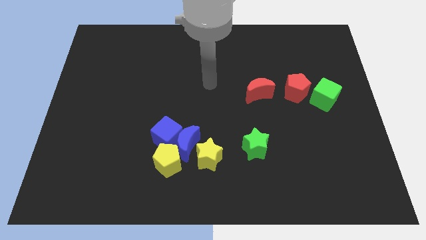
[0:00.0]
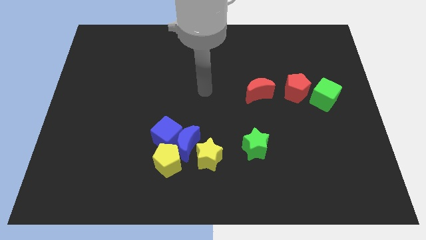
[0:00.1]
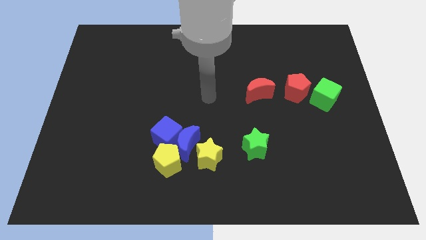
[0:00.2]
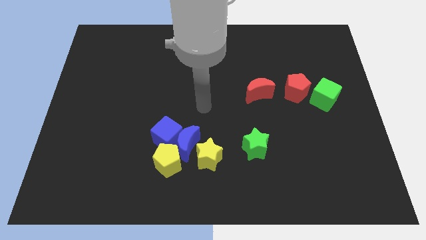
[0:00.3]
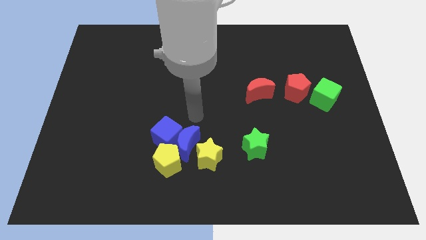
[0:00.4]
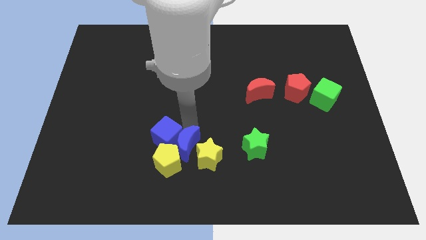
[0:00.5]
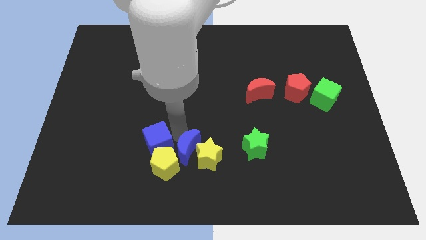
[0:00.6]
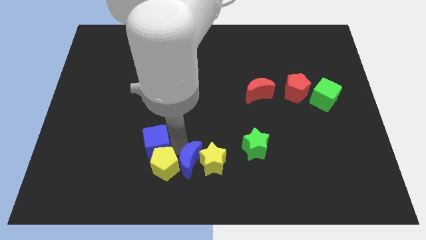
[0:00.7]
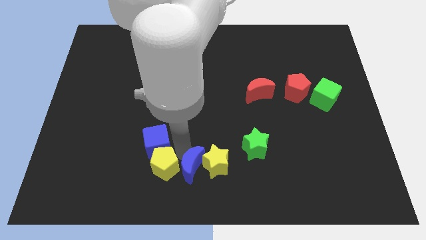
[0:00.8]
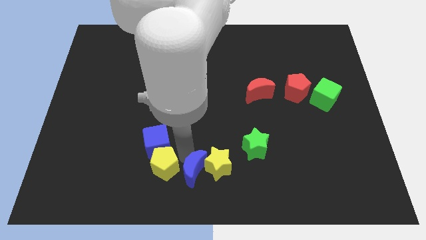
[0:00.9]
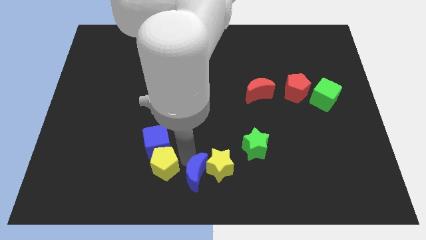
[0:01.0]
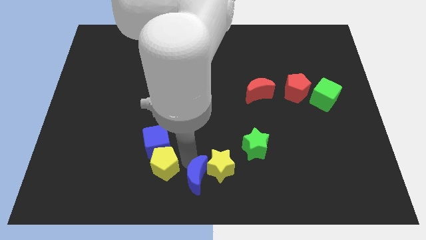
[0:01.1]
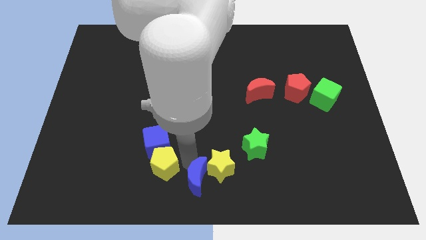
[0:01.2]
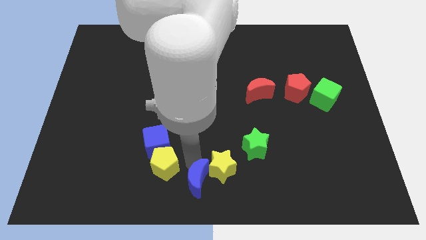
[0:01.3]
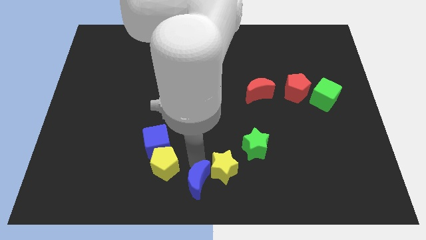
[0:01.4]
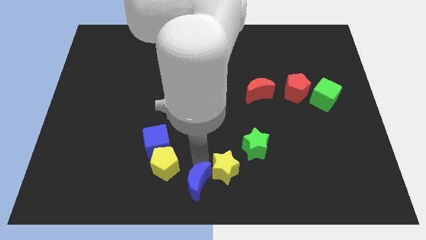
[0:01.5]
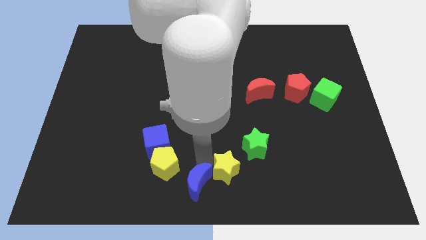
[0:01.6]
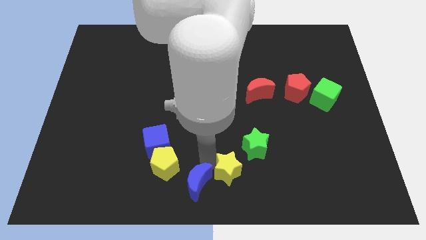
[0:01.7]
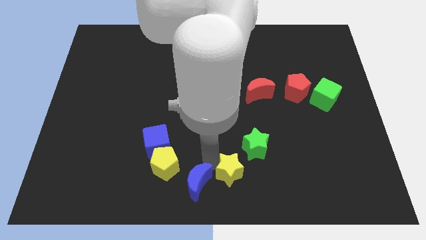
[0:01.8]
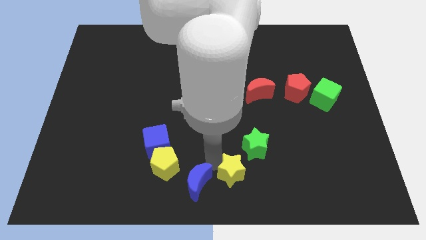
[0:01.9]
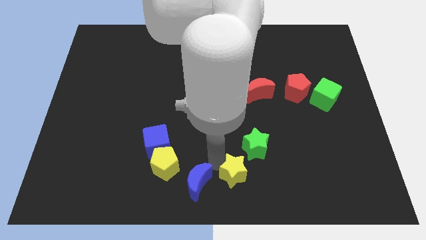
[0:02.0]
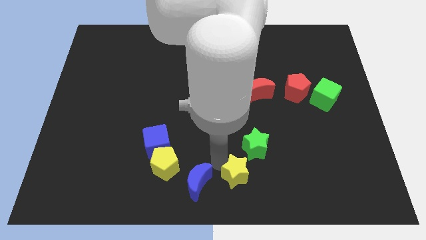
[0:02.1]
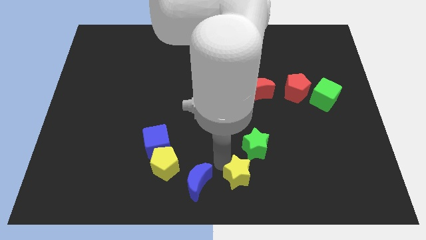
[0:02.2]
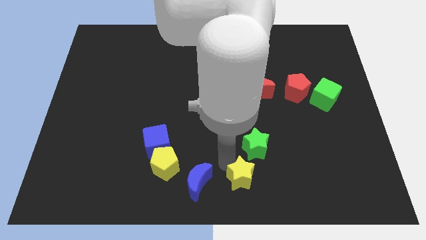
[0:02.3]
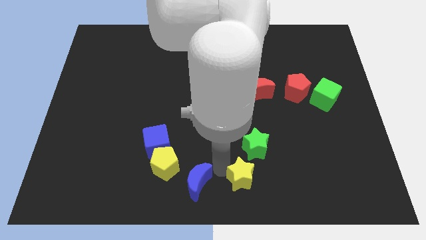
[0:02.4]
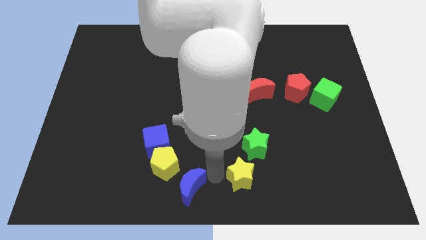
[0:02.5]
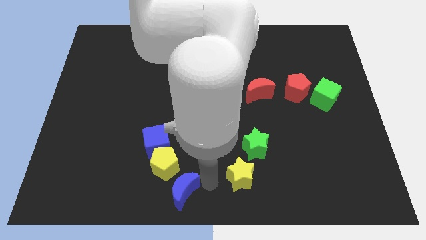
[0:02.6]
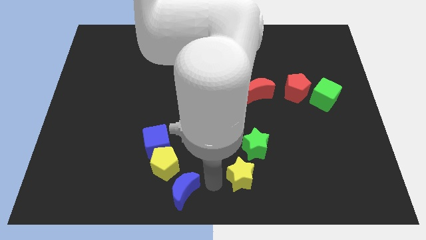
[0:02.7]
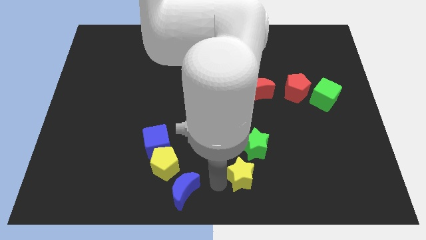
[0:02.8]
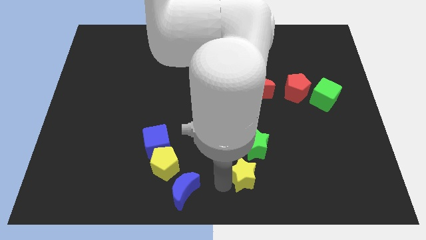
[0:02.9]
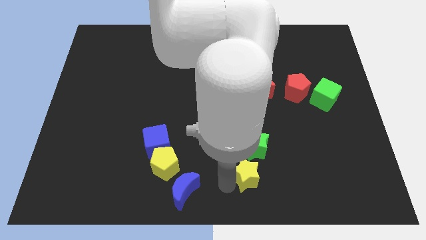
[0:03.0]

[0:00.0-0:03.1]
slightly push the yellow star to the right

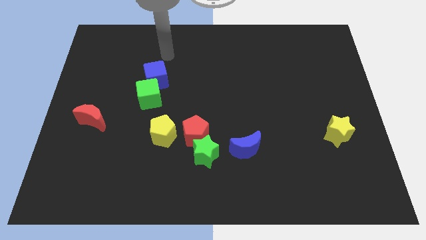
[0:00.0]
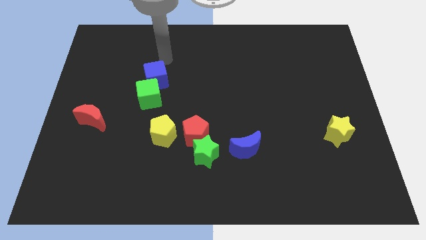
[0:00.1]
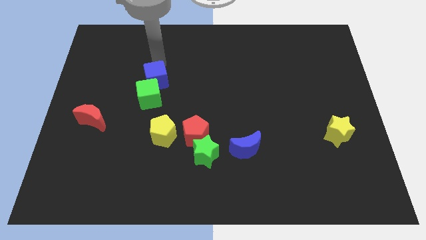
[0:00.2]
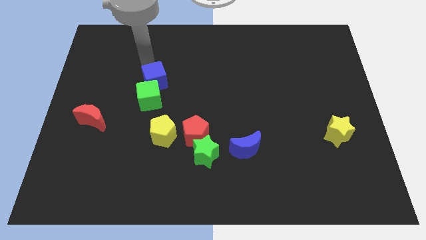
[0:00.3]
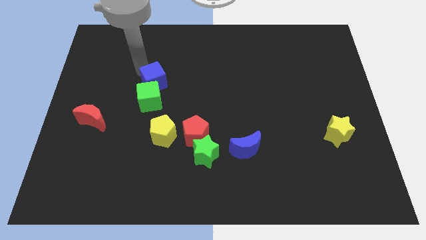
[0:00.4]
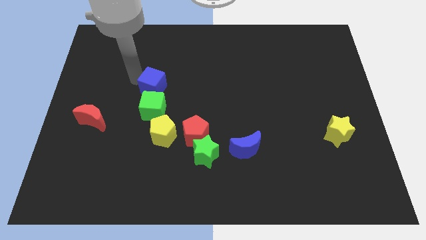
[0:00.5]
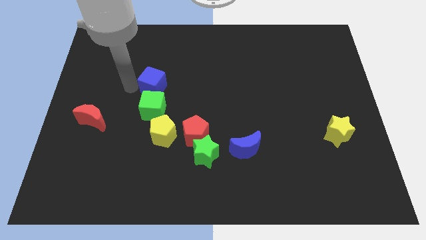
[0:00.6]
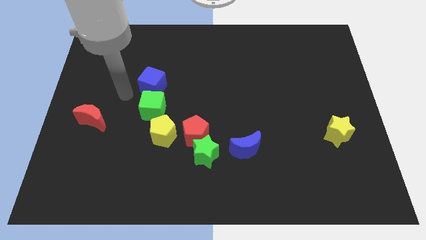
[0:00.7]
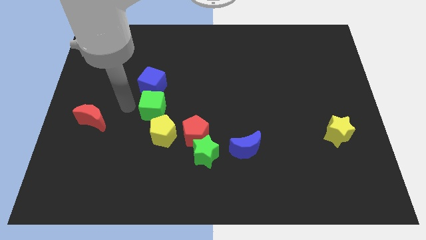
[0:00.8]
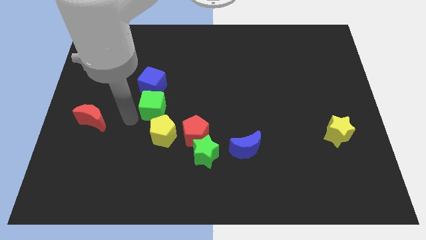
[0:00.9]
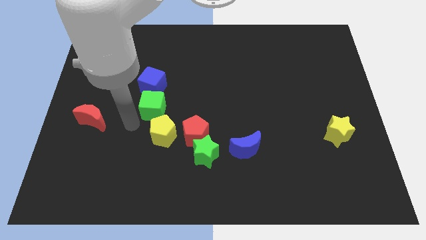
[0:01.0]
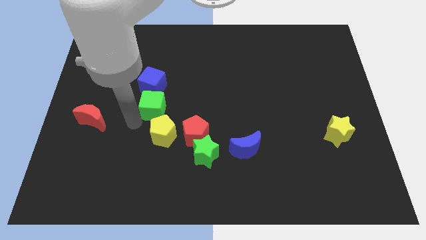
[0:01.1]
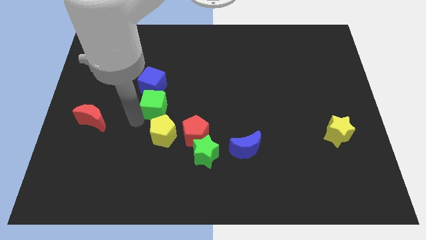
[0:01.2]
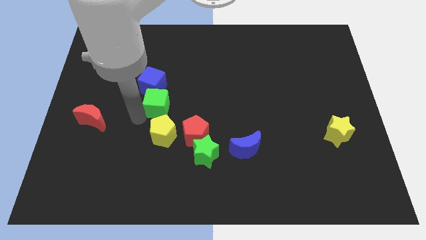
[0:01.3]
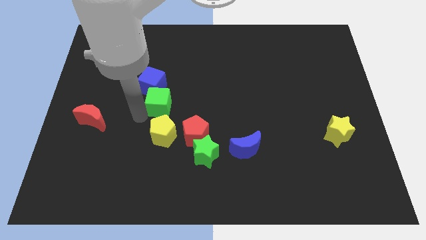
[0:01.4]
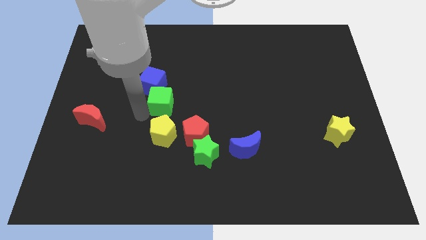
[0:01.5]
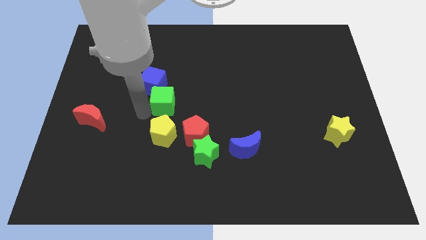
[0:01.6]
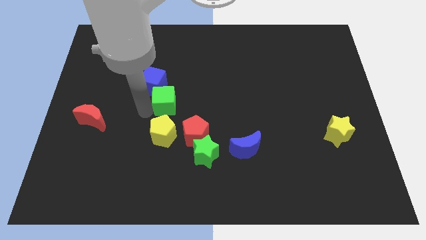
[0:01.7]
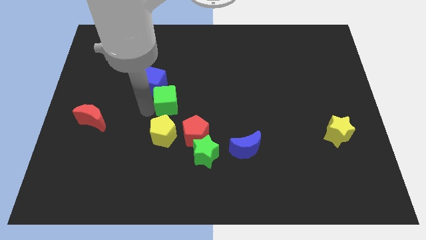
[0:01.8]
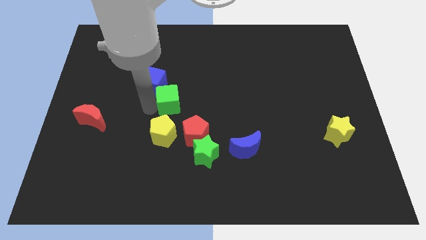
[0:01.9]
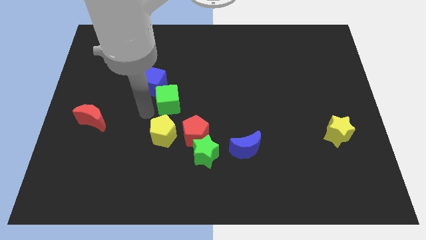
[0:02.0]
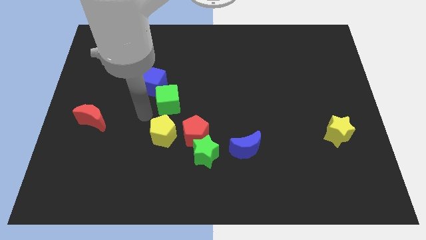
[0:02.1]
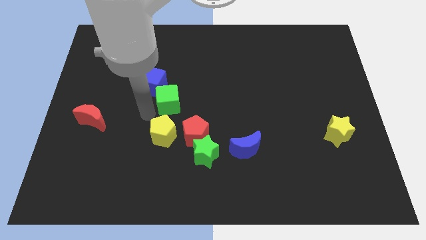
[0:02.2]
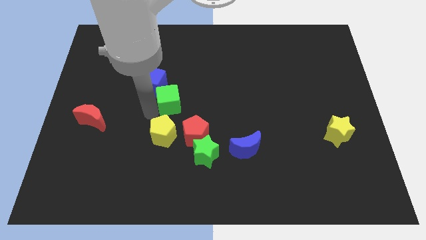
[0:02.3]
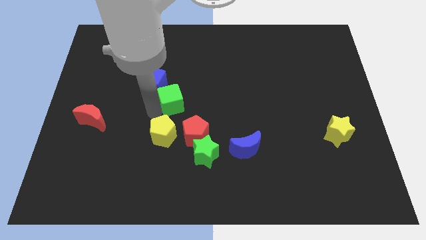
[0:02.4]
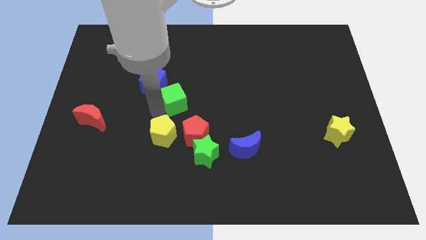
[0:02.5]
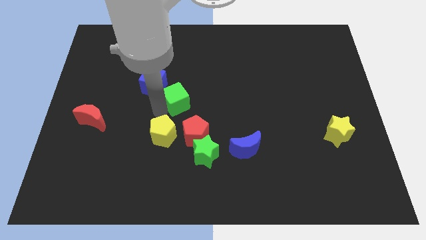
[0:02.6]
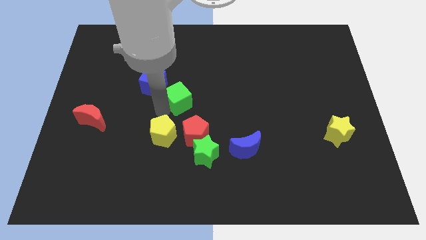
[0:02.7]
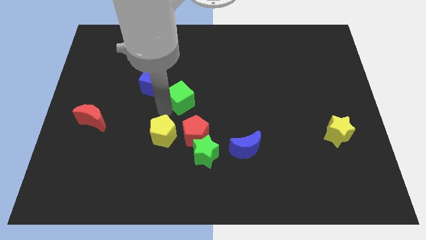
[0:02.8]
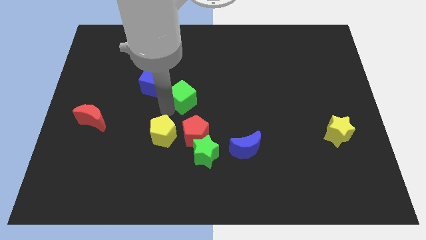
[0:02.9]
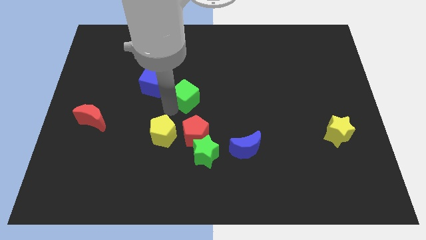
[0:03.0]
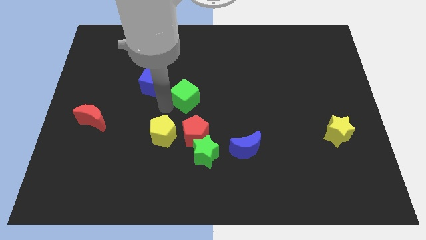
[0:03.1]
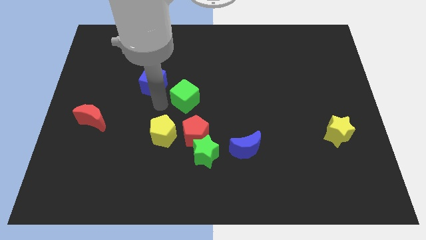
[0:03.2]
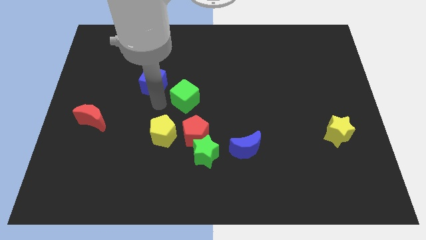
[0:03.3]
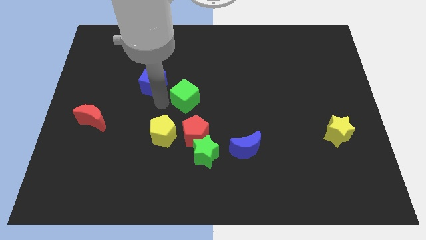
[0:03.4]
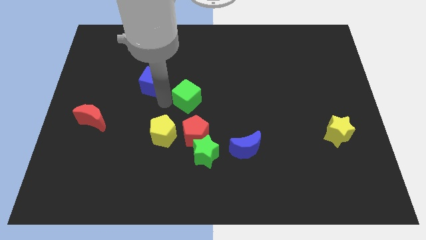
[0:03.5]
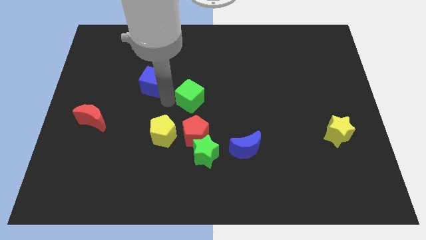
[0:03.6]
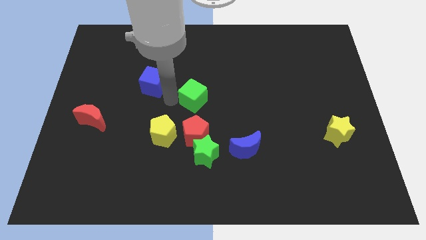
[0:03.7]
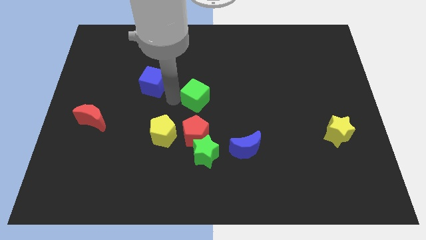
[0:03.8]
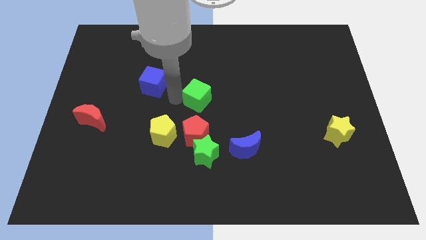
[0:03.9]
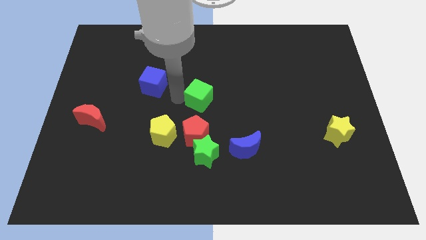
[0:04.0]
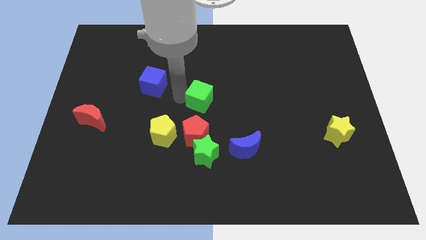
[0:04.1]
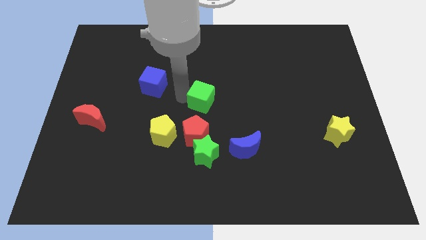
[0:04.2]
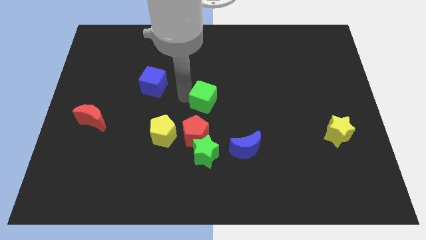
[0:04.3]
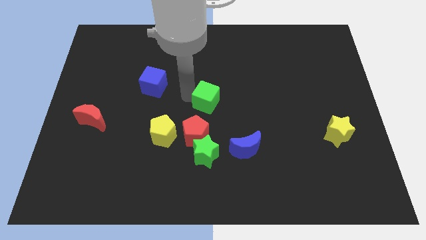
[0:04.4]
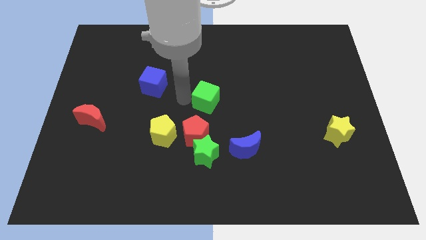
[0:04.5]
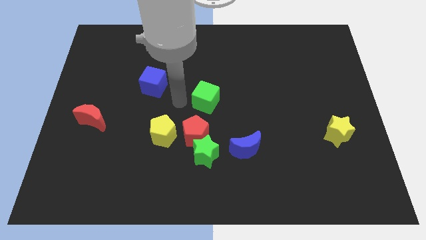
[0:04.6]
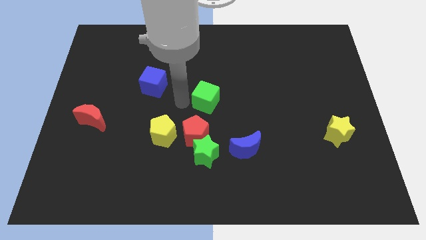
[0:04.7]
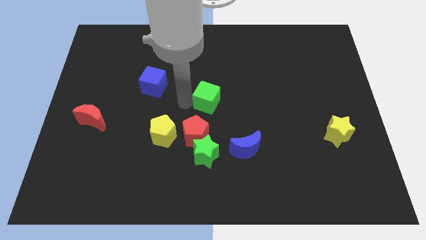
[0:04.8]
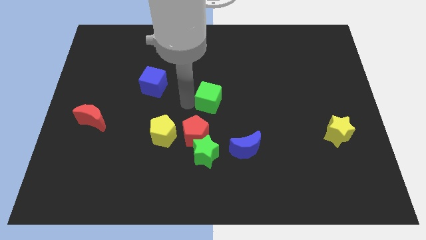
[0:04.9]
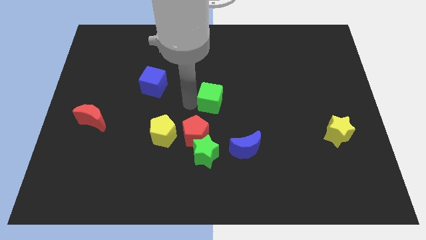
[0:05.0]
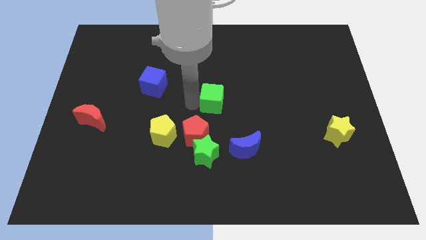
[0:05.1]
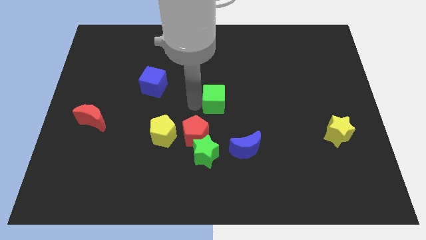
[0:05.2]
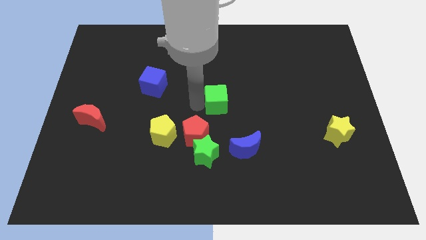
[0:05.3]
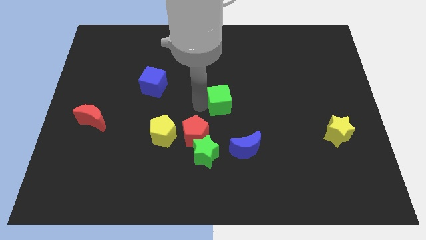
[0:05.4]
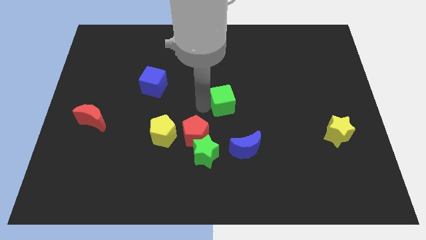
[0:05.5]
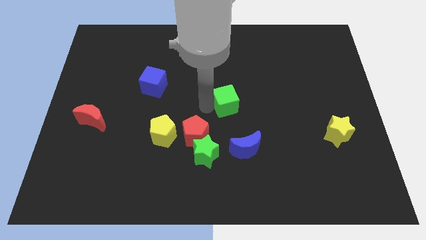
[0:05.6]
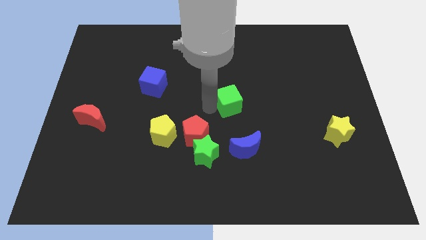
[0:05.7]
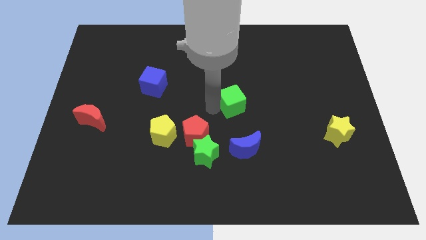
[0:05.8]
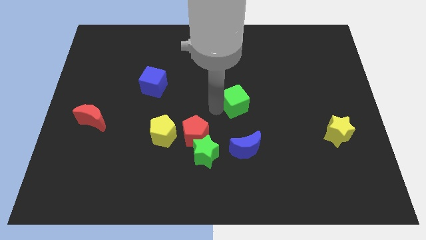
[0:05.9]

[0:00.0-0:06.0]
move the green cube to the right
